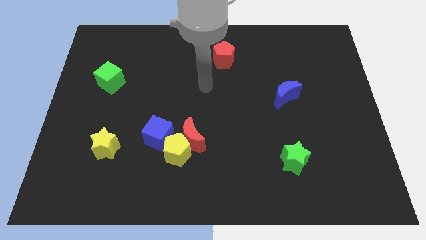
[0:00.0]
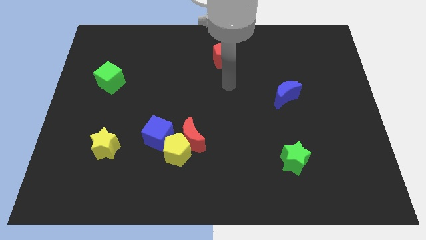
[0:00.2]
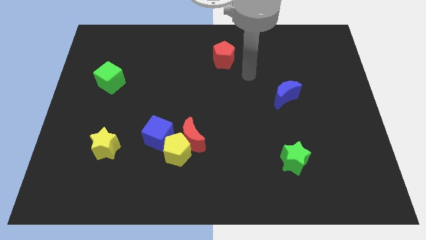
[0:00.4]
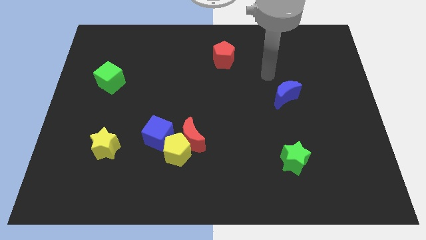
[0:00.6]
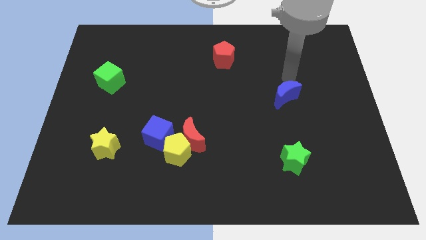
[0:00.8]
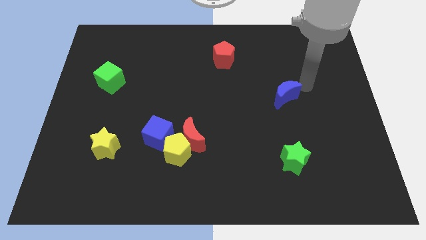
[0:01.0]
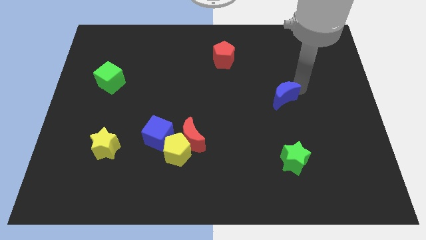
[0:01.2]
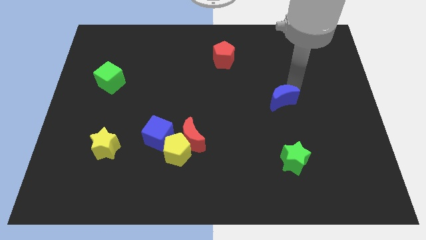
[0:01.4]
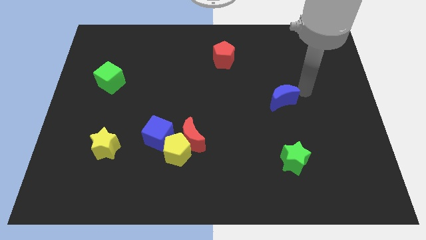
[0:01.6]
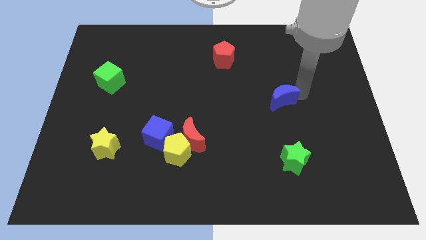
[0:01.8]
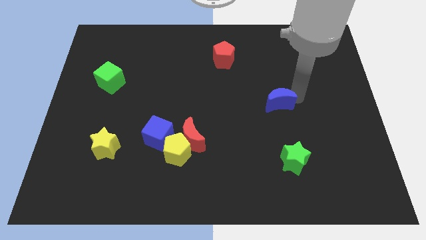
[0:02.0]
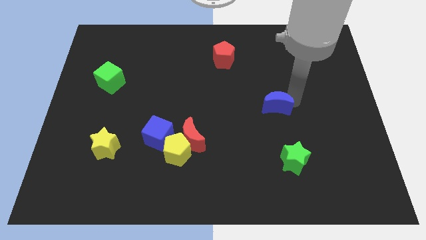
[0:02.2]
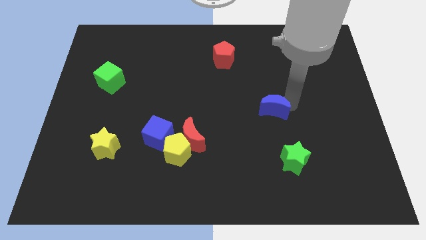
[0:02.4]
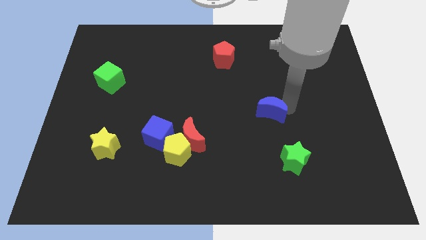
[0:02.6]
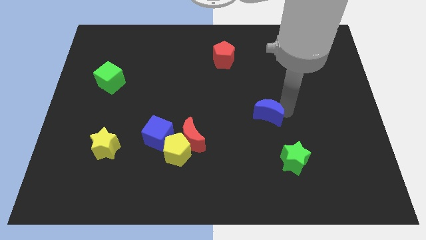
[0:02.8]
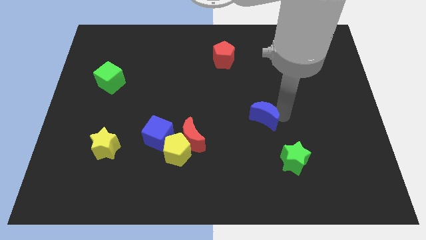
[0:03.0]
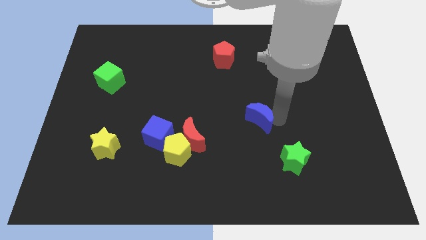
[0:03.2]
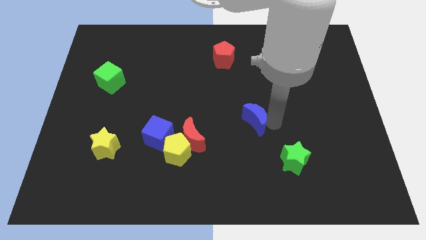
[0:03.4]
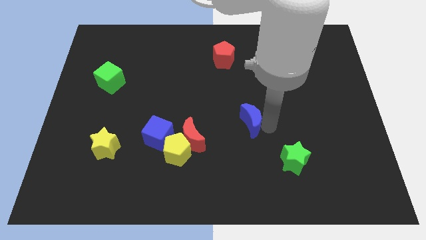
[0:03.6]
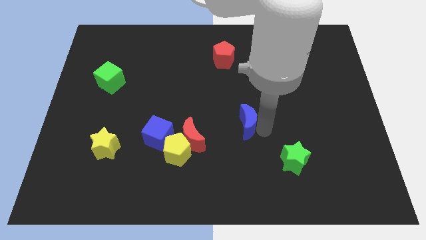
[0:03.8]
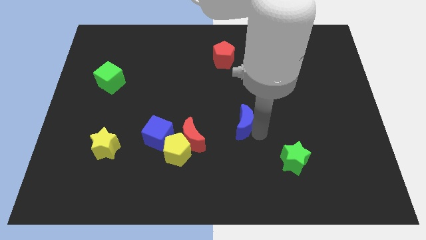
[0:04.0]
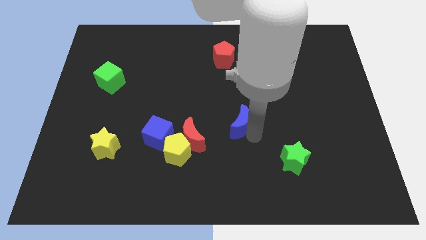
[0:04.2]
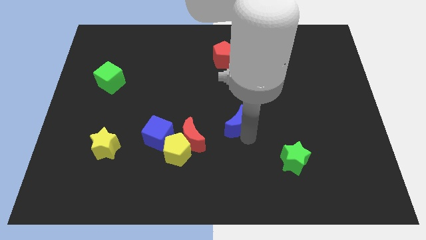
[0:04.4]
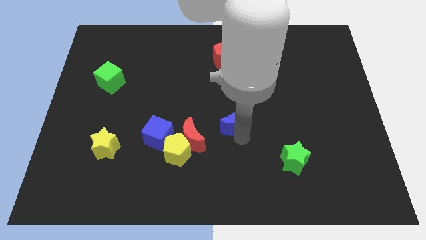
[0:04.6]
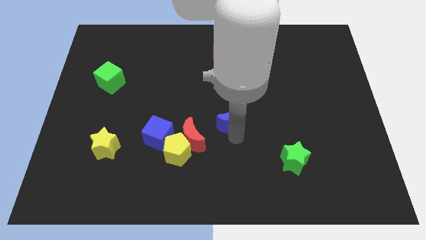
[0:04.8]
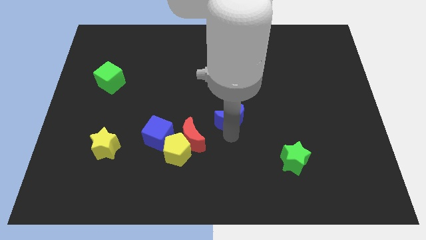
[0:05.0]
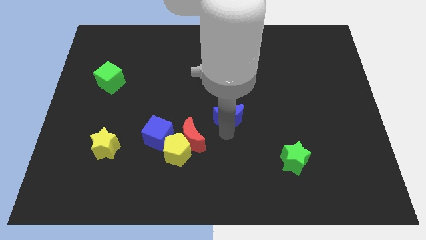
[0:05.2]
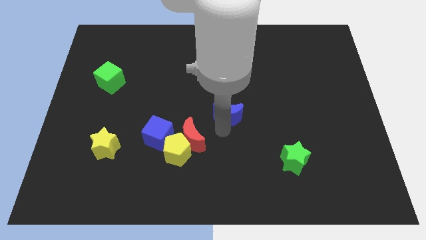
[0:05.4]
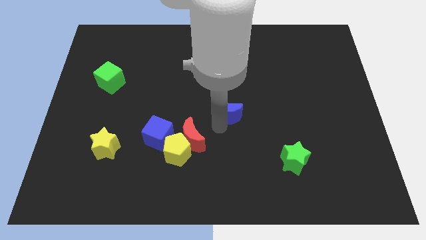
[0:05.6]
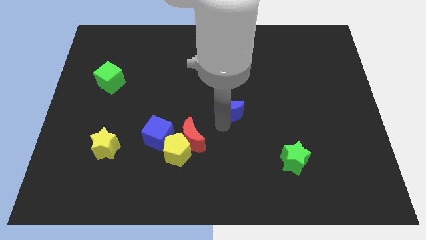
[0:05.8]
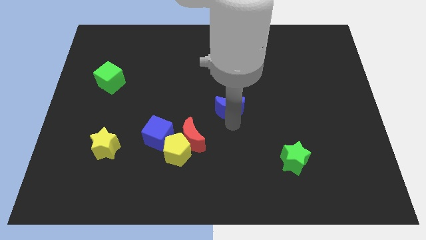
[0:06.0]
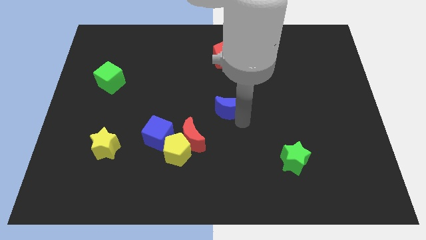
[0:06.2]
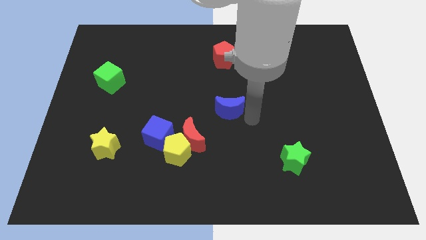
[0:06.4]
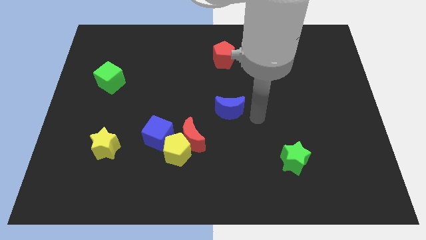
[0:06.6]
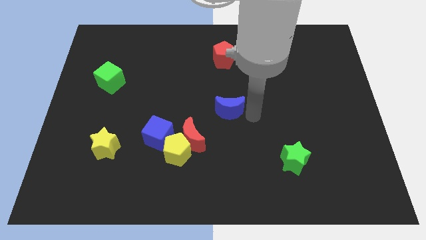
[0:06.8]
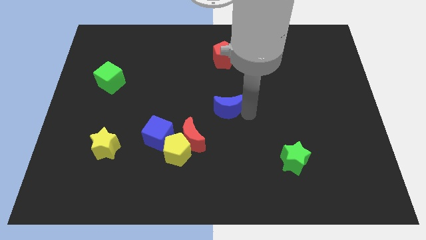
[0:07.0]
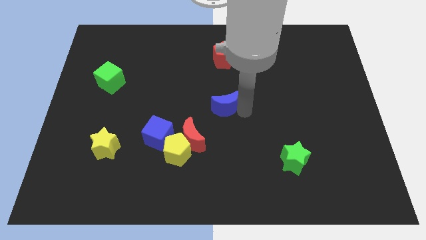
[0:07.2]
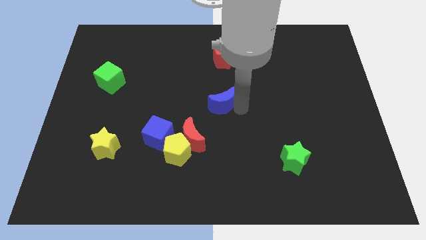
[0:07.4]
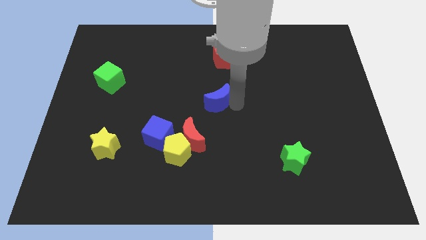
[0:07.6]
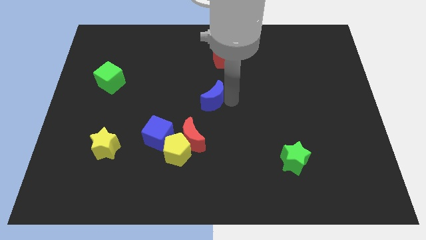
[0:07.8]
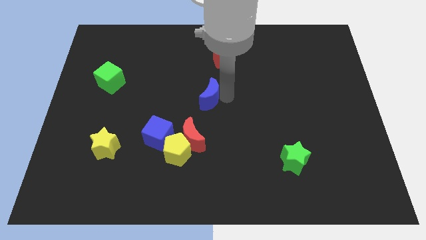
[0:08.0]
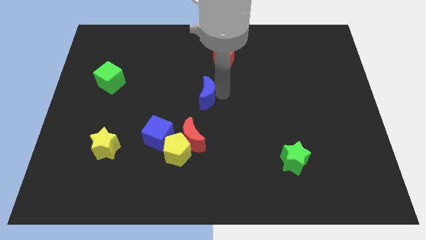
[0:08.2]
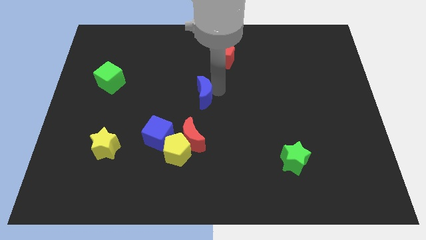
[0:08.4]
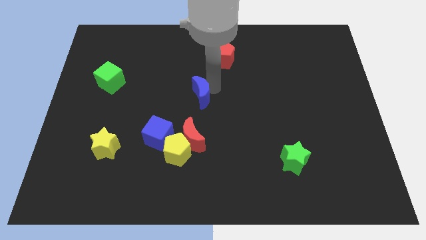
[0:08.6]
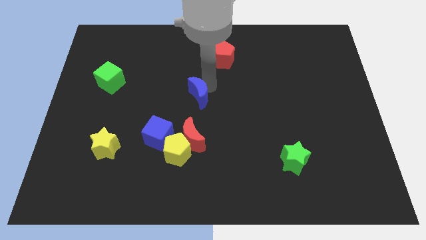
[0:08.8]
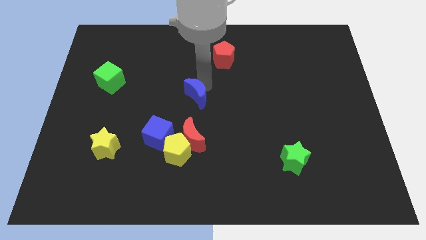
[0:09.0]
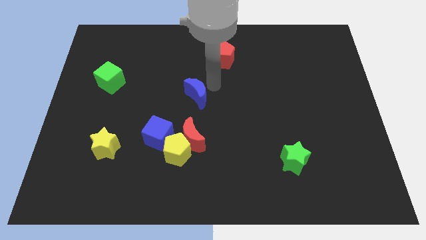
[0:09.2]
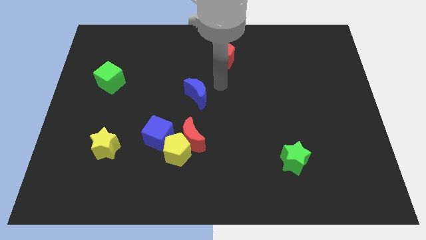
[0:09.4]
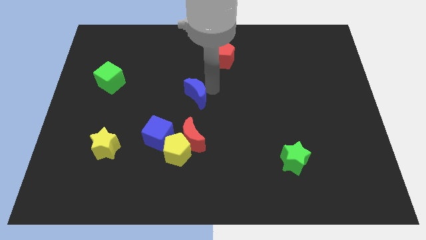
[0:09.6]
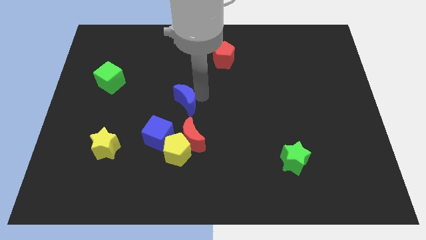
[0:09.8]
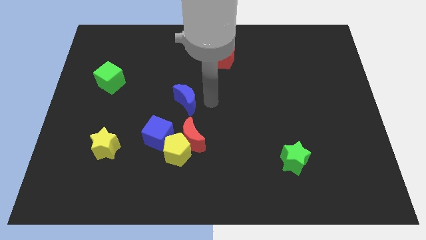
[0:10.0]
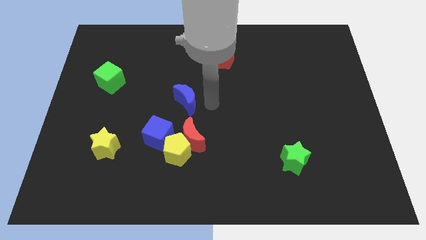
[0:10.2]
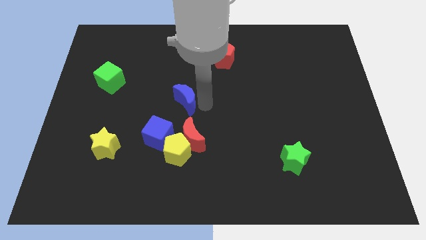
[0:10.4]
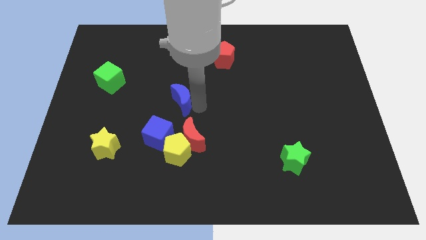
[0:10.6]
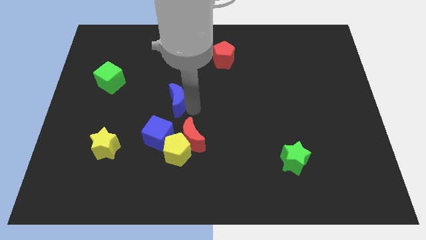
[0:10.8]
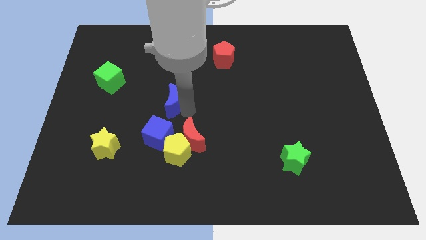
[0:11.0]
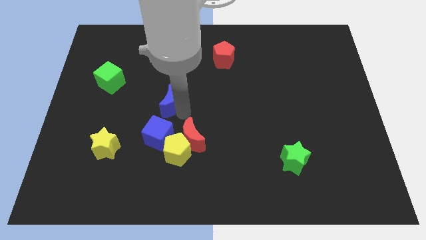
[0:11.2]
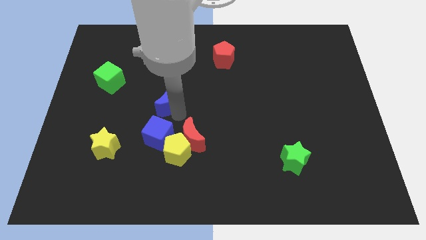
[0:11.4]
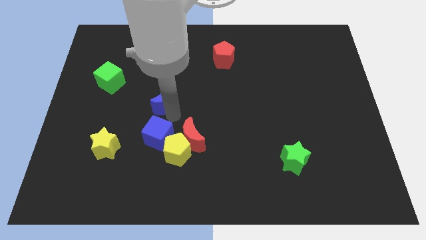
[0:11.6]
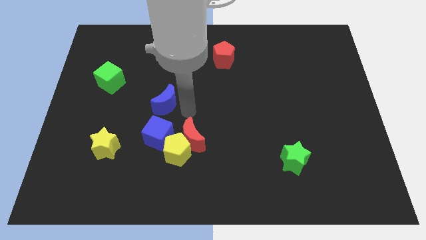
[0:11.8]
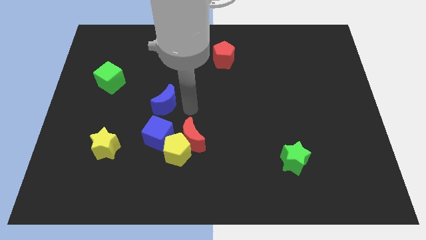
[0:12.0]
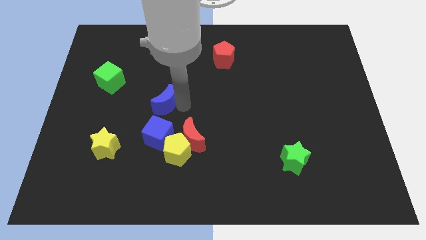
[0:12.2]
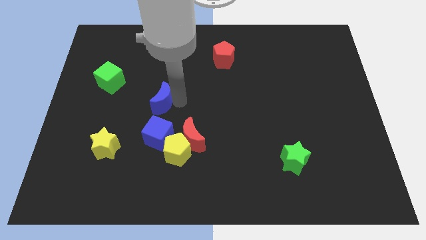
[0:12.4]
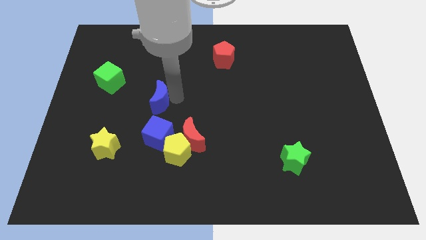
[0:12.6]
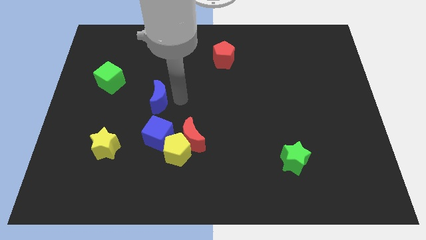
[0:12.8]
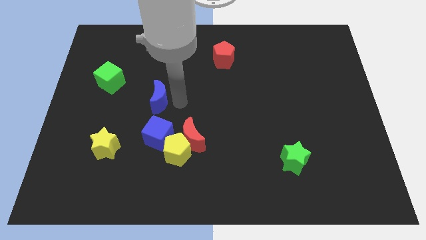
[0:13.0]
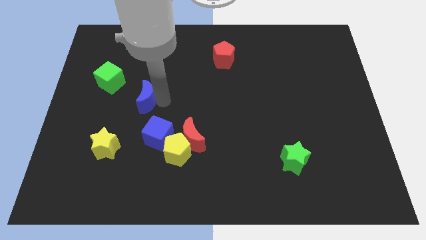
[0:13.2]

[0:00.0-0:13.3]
move the blue moon to the bottom right of the green cube
